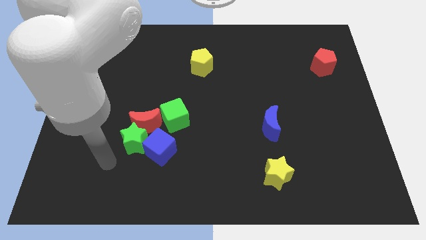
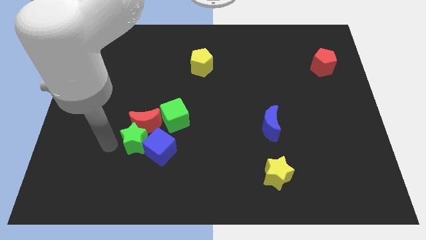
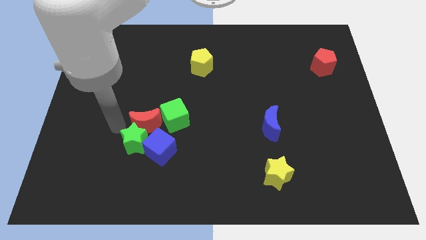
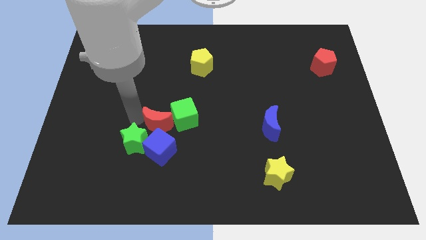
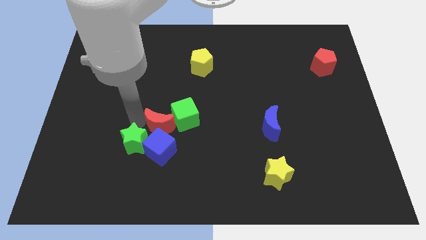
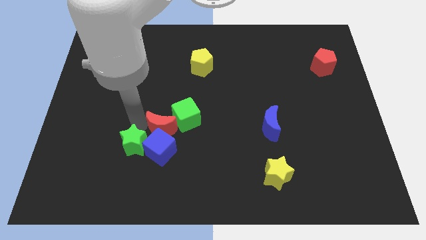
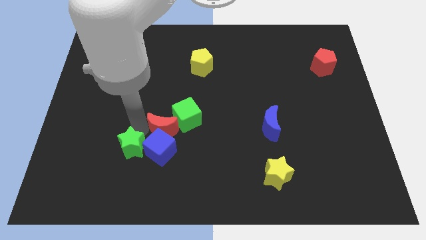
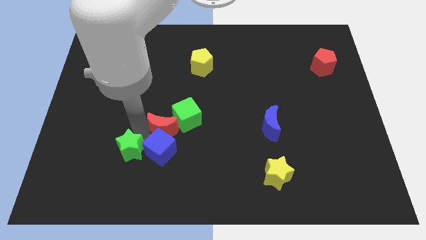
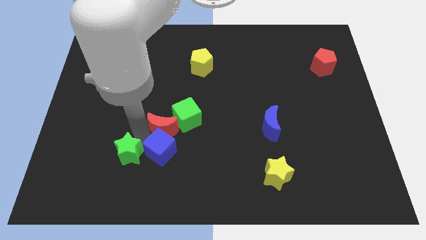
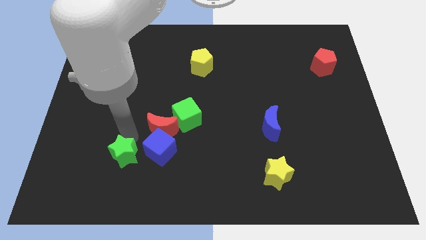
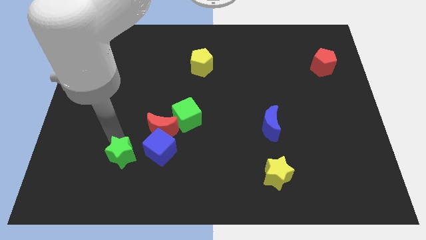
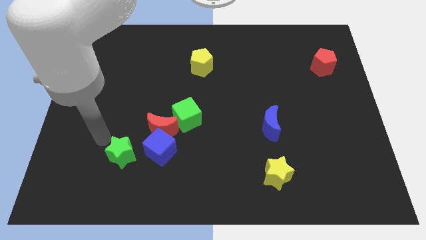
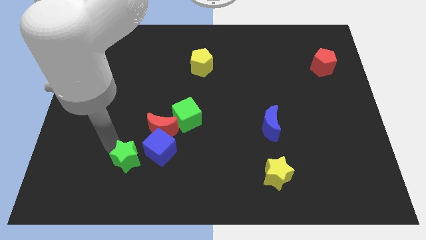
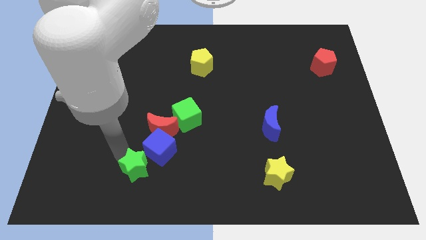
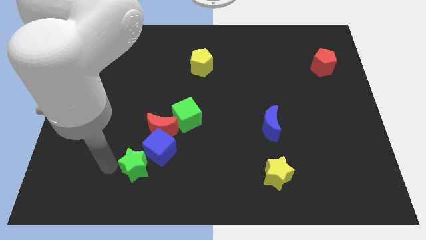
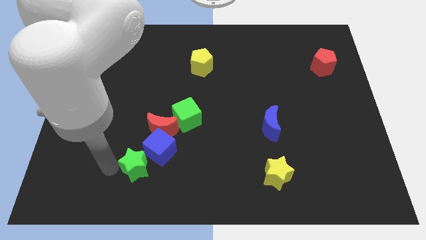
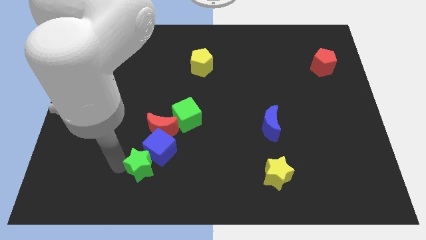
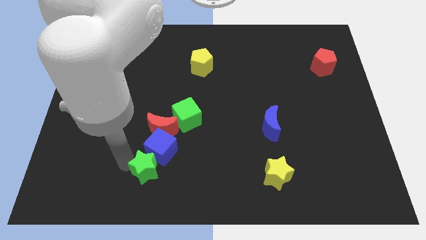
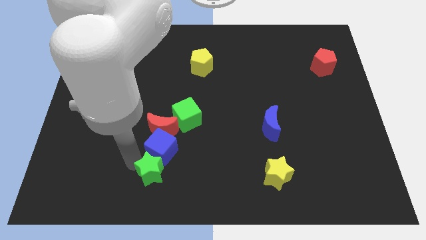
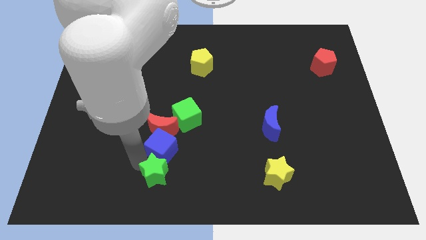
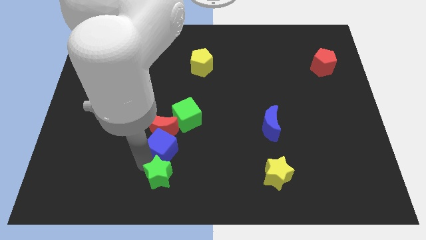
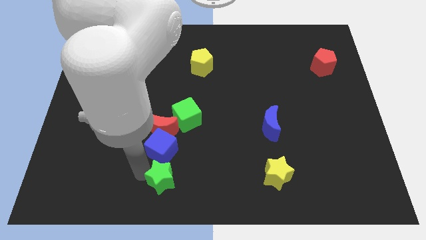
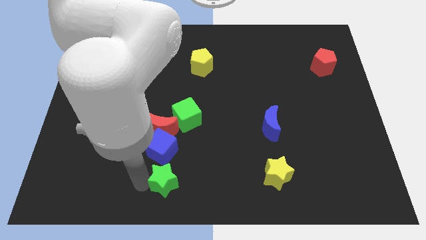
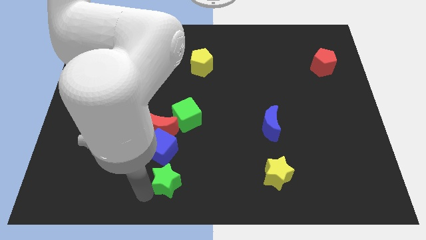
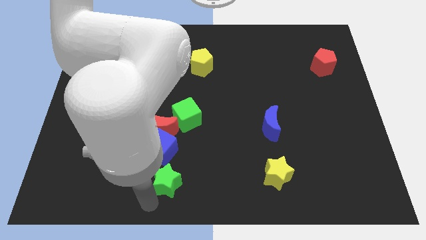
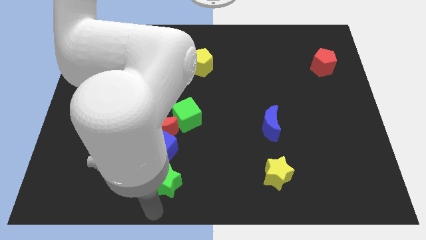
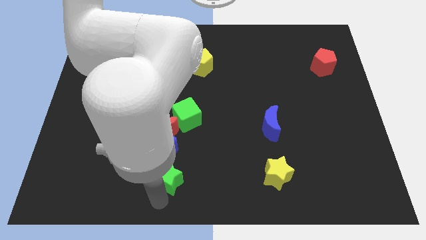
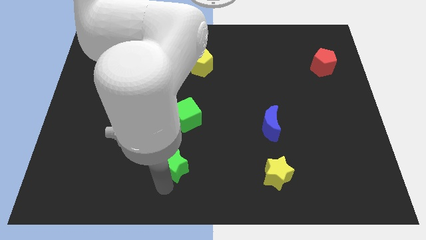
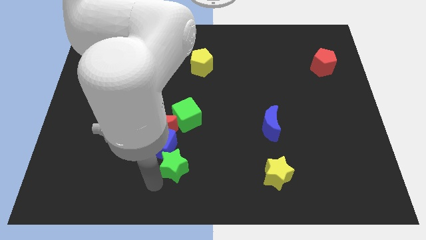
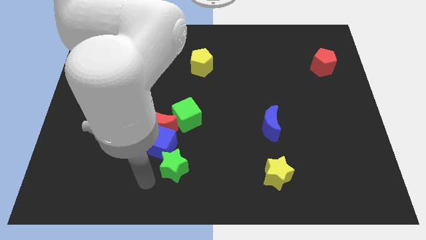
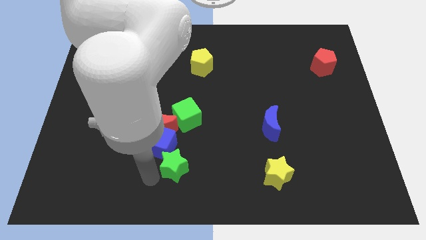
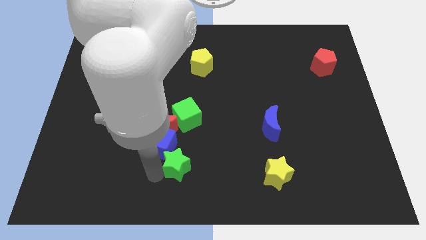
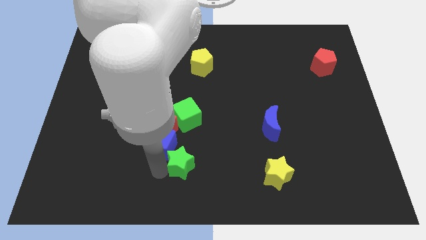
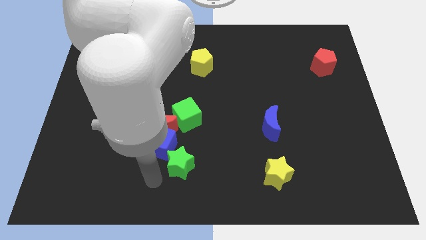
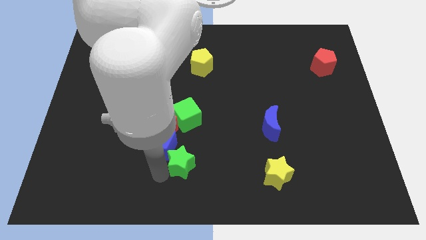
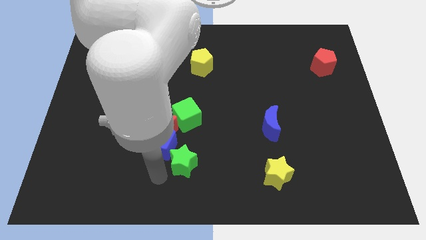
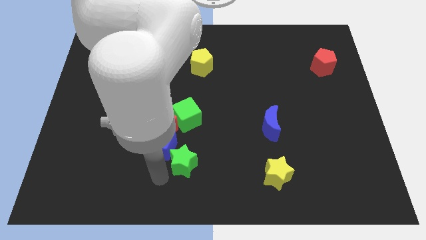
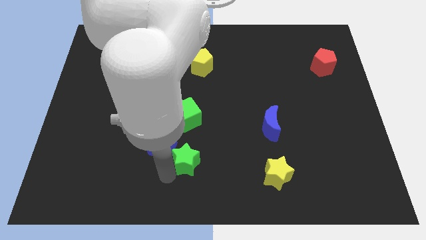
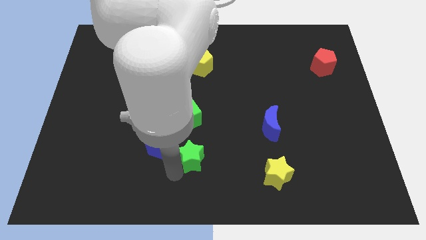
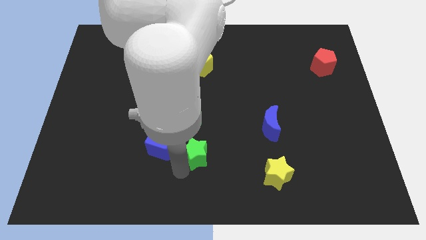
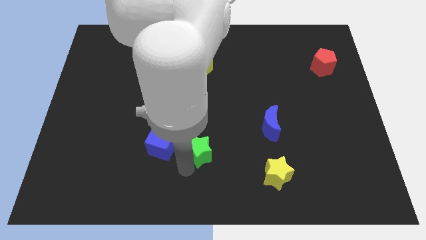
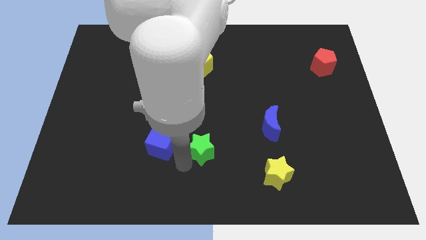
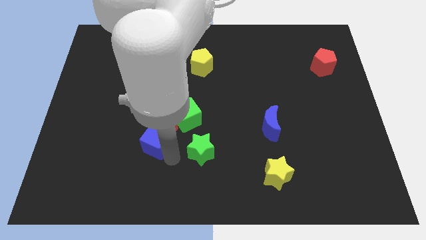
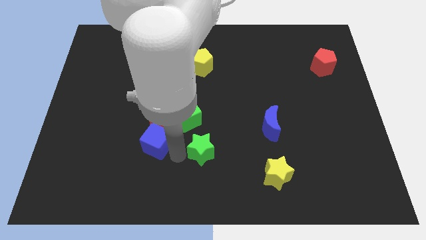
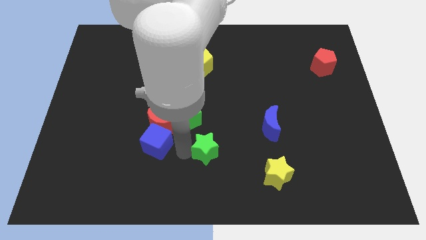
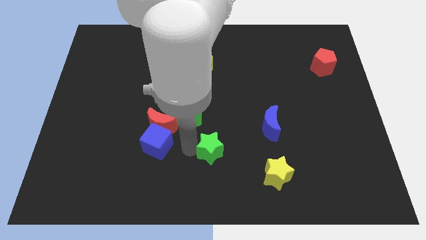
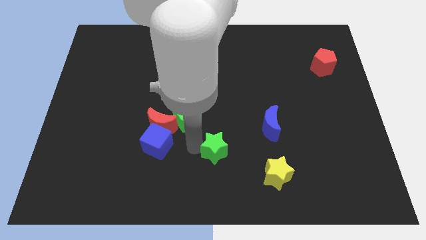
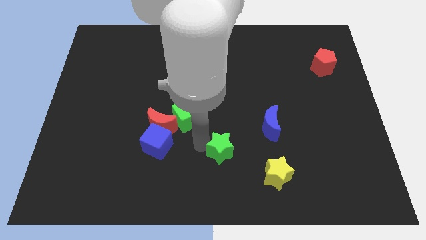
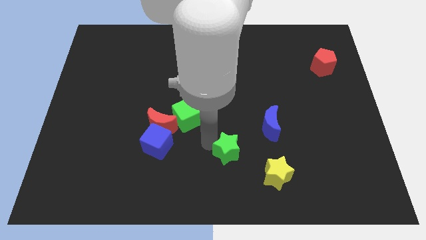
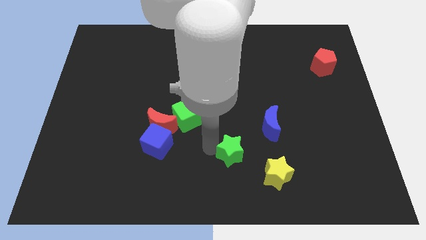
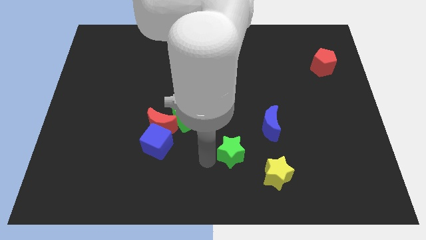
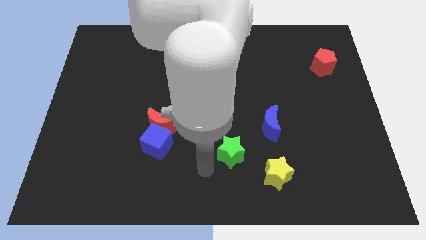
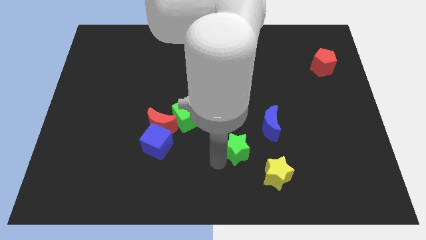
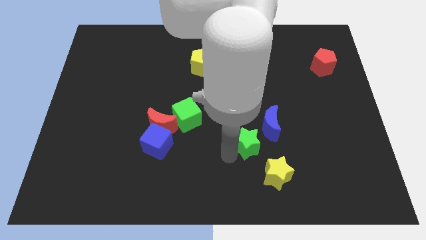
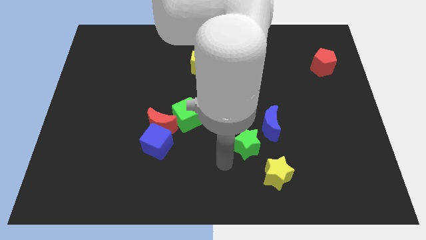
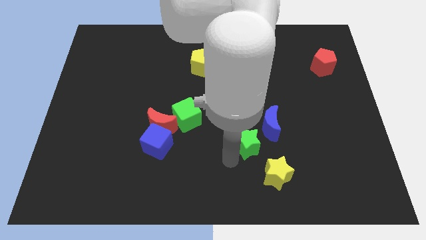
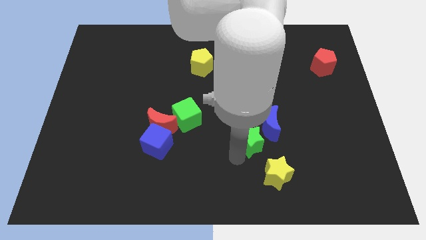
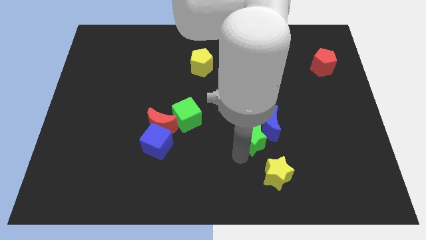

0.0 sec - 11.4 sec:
push the green star next to the blue moon

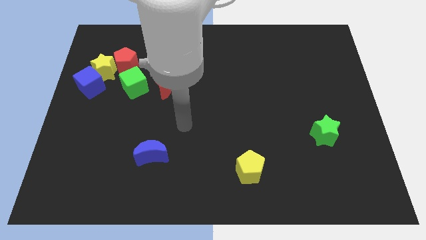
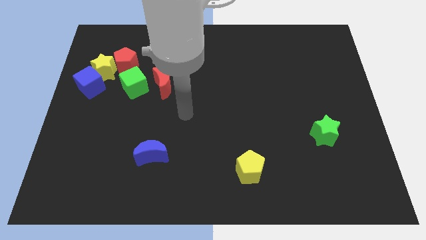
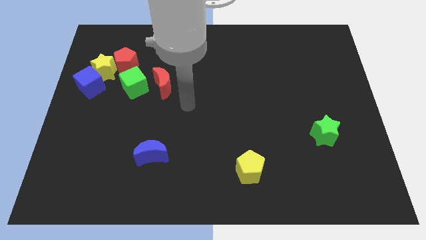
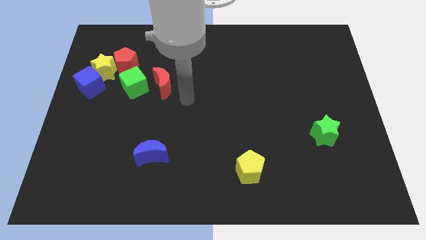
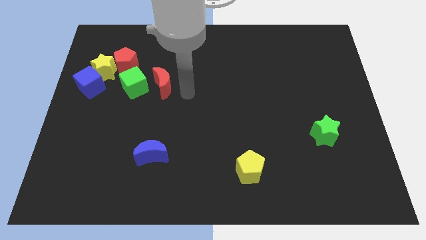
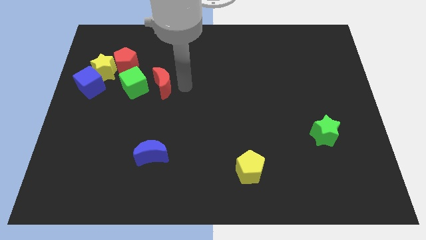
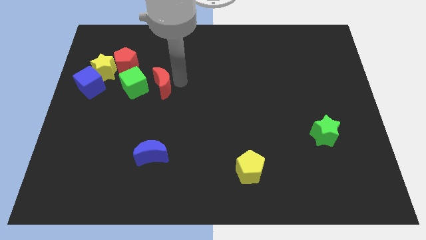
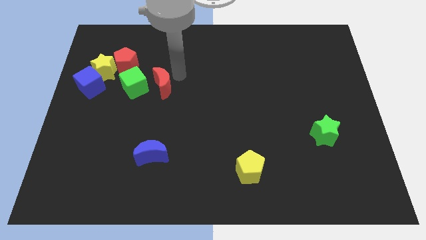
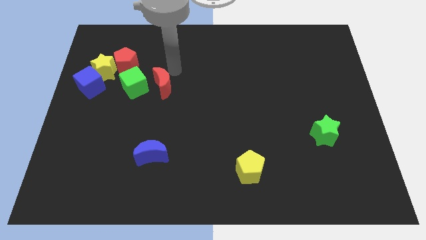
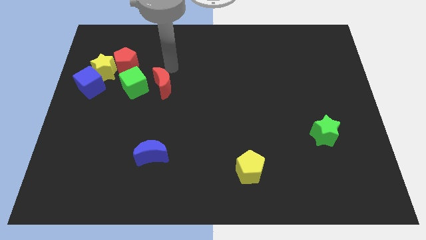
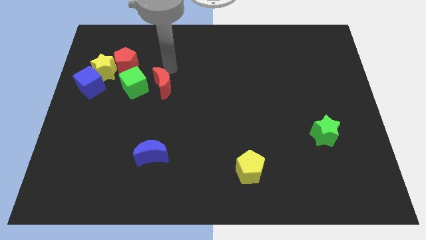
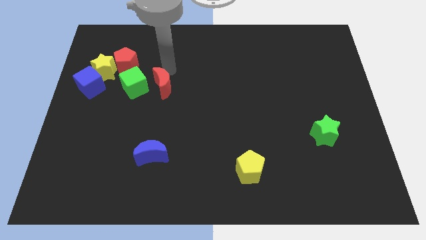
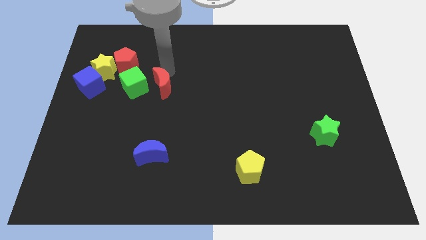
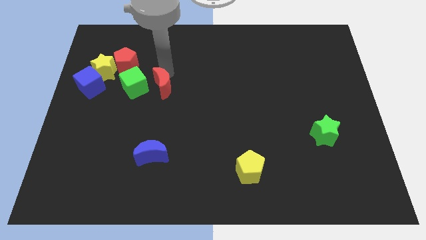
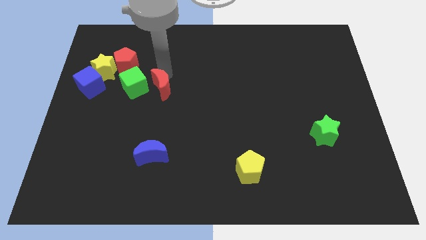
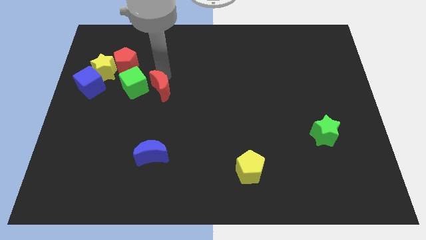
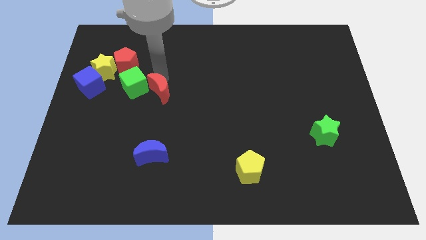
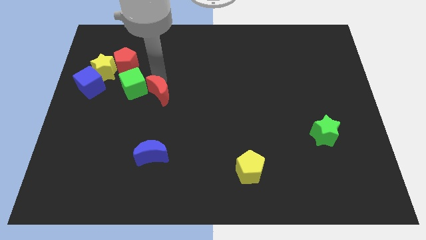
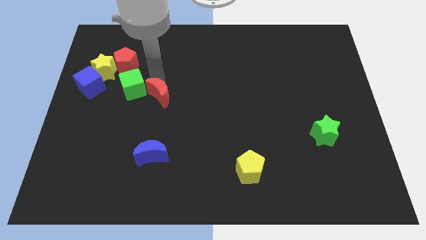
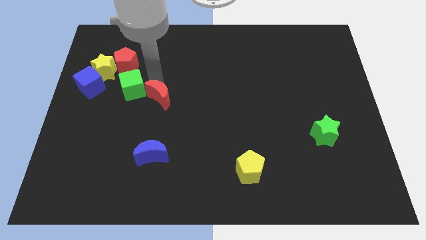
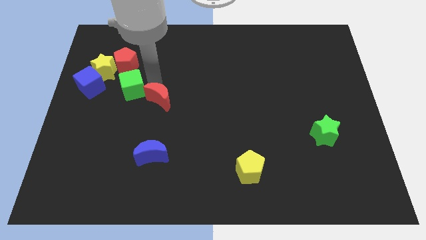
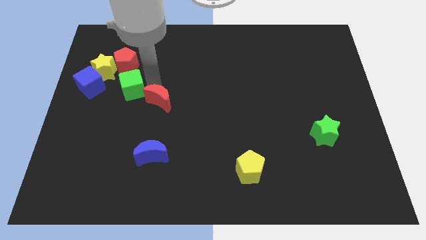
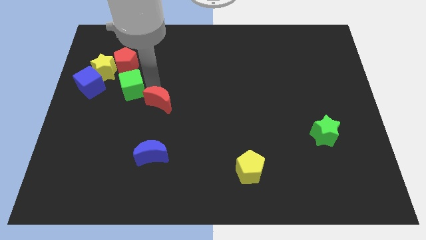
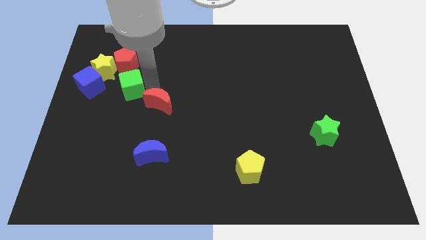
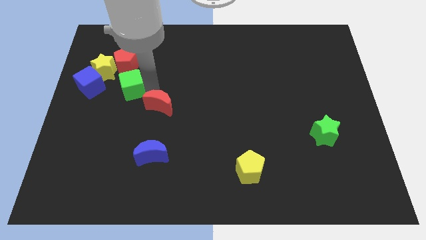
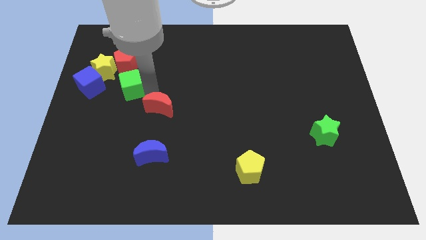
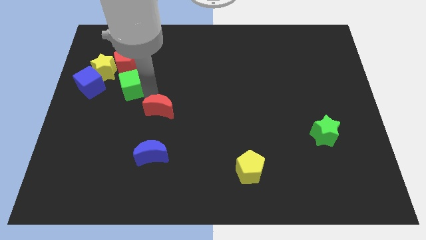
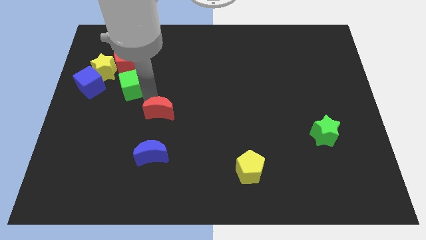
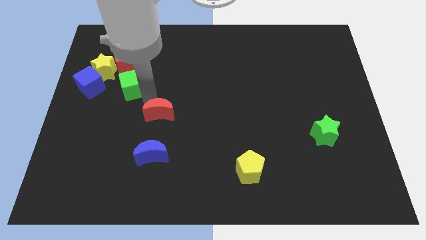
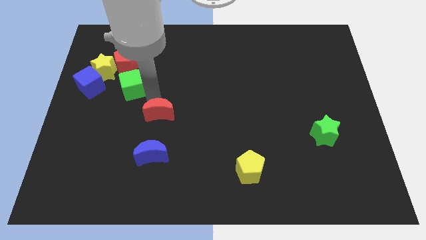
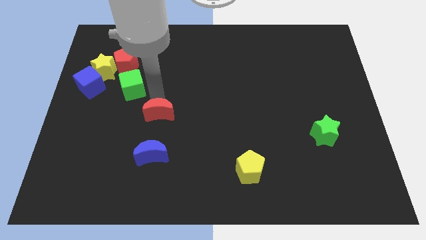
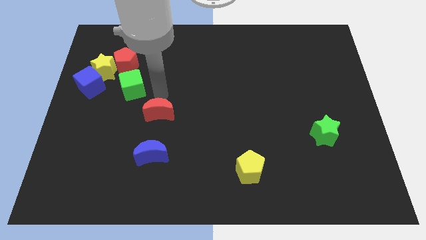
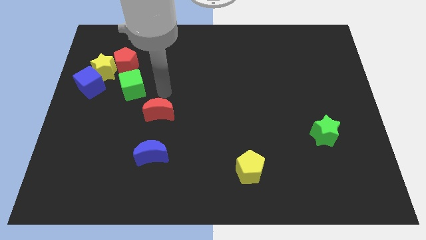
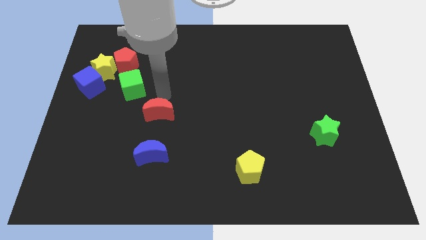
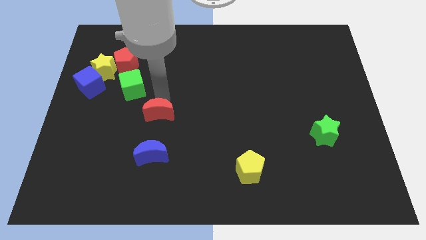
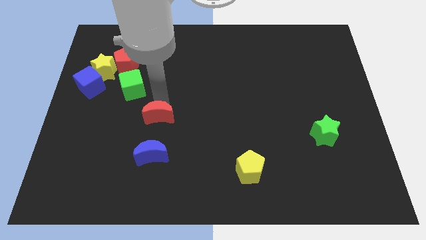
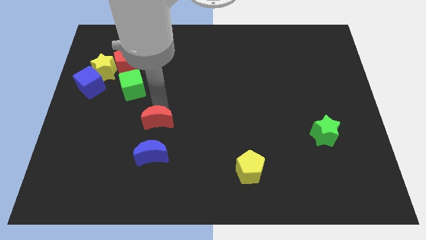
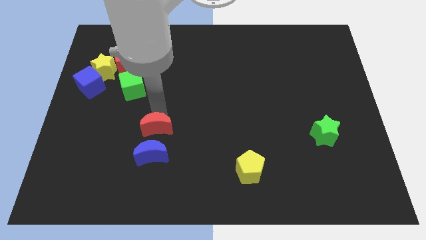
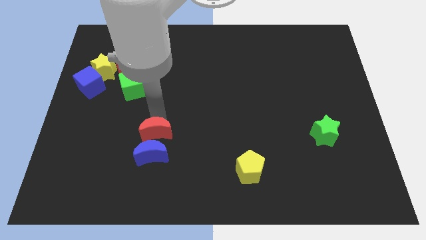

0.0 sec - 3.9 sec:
move the red moon next to the blue moon
